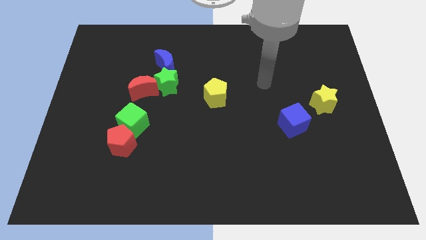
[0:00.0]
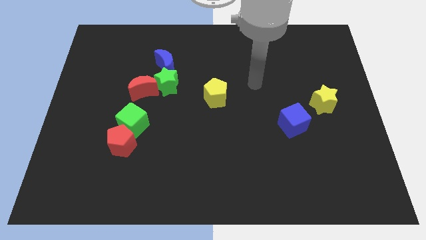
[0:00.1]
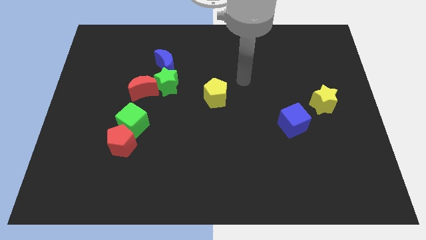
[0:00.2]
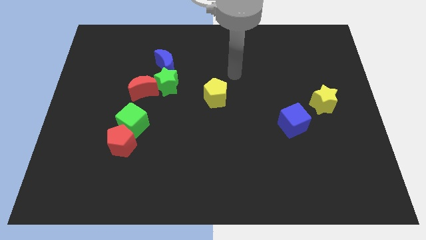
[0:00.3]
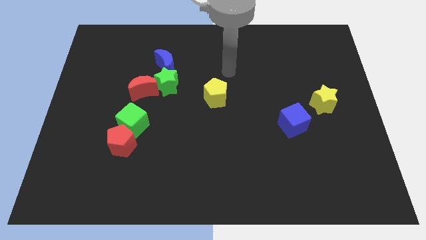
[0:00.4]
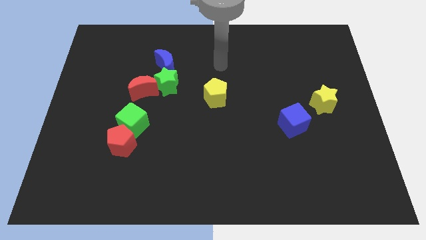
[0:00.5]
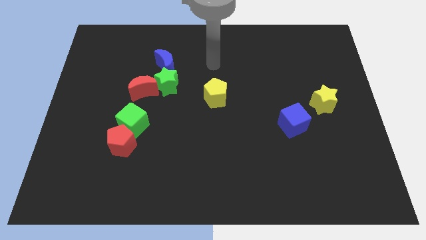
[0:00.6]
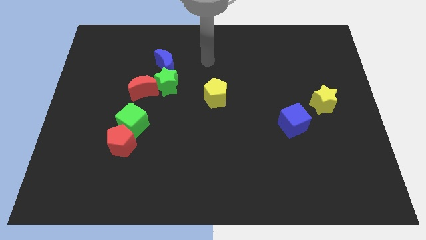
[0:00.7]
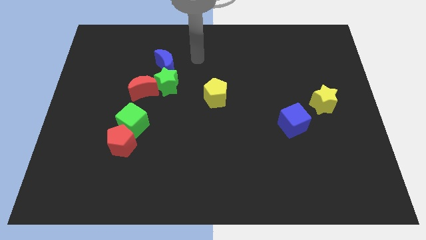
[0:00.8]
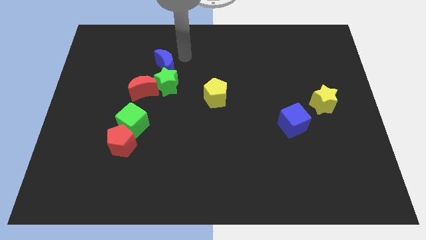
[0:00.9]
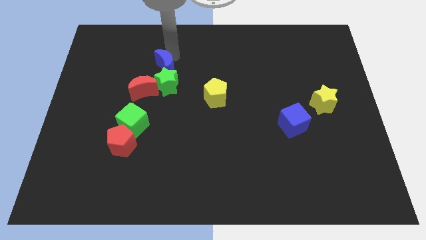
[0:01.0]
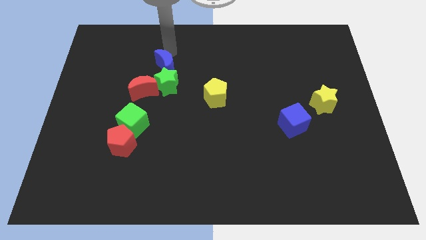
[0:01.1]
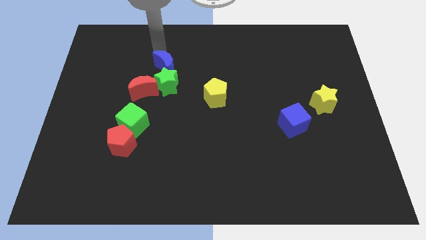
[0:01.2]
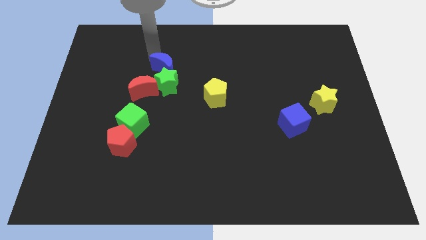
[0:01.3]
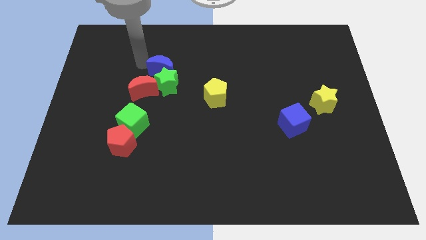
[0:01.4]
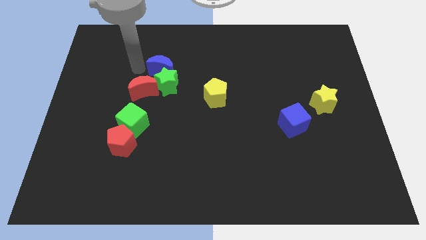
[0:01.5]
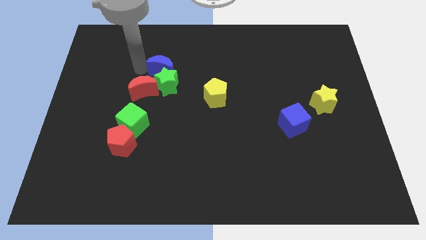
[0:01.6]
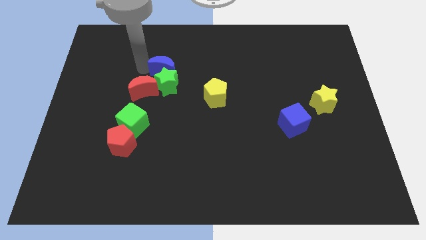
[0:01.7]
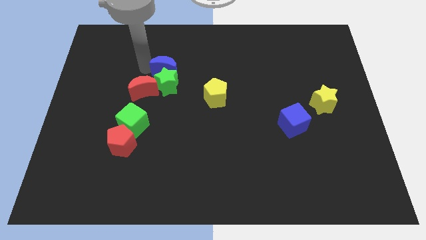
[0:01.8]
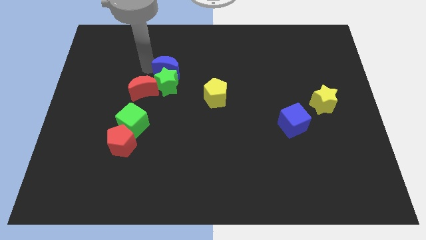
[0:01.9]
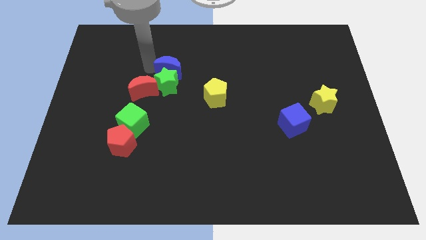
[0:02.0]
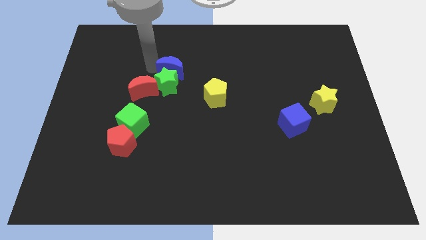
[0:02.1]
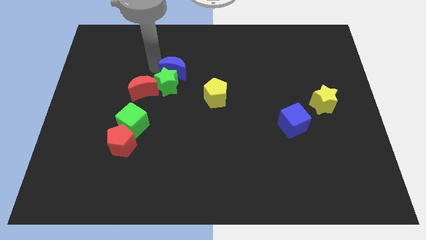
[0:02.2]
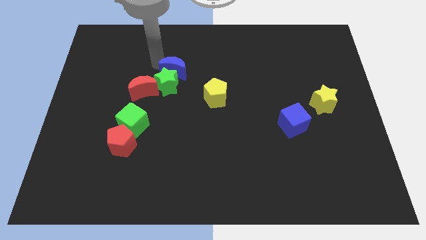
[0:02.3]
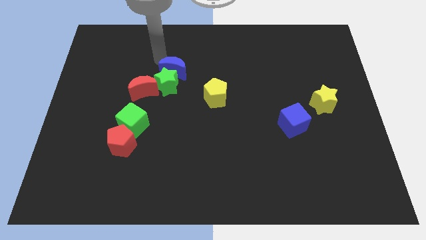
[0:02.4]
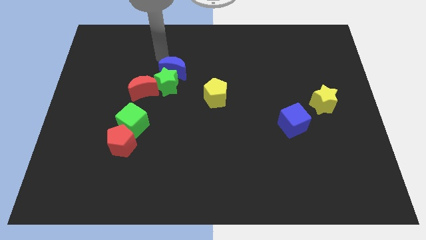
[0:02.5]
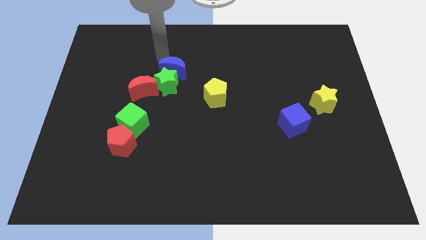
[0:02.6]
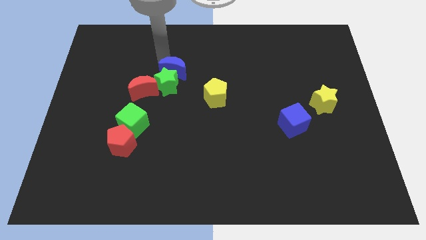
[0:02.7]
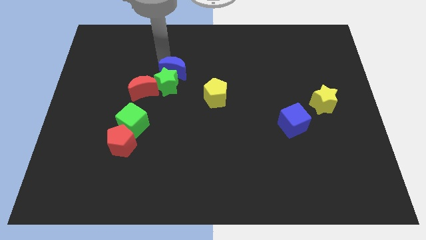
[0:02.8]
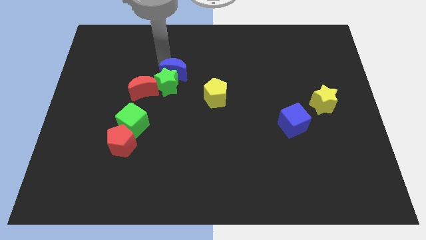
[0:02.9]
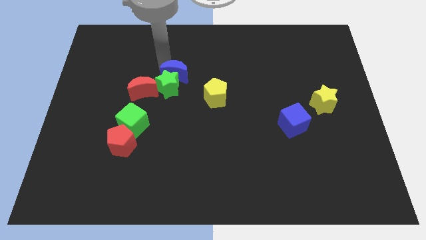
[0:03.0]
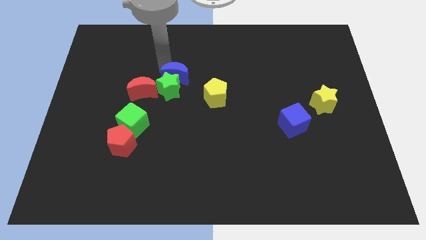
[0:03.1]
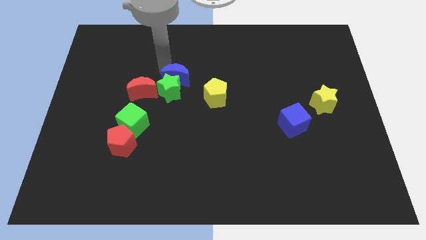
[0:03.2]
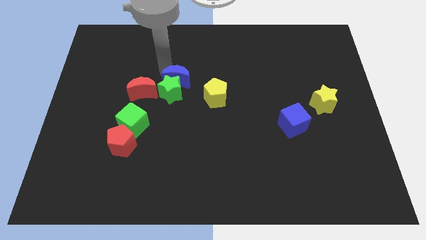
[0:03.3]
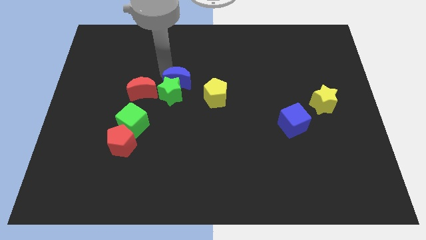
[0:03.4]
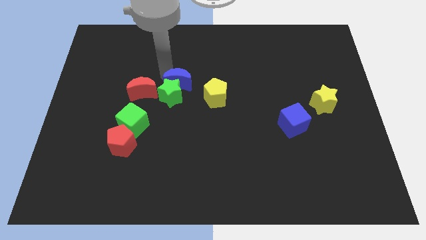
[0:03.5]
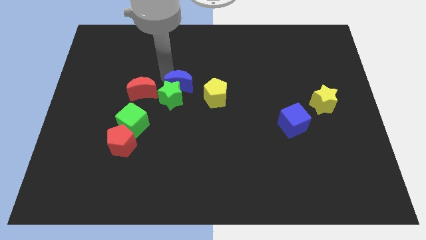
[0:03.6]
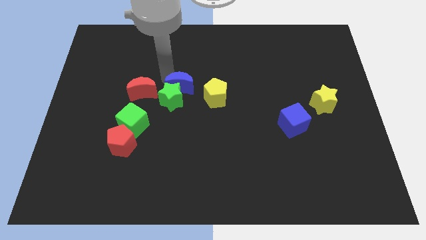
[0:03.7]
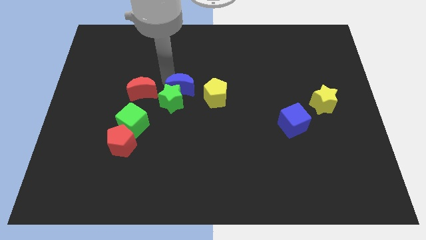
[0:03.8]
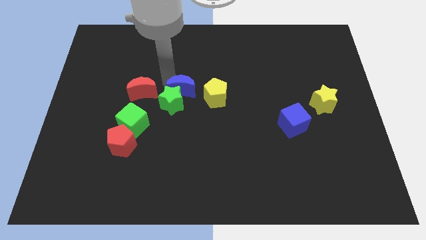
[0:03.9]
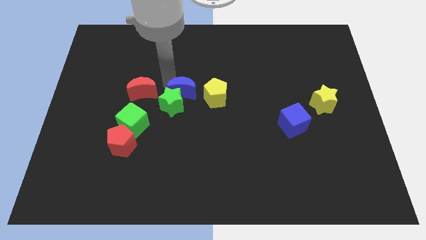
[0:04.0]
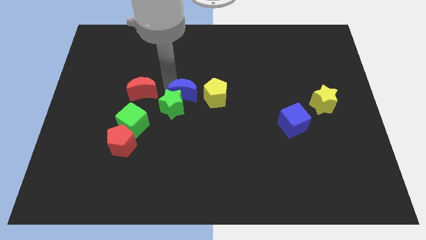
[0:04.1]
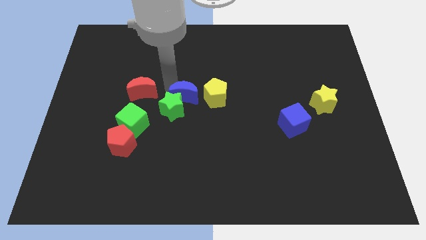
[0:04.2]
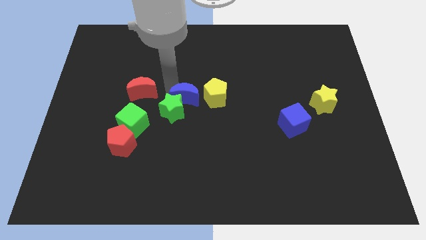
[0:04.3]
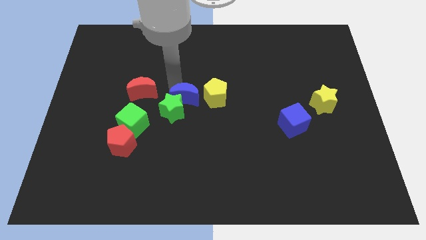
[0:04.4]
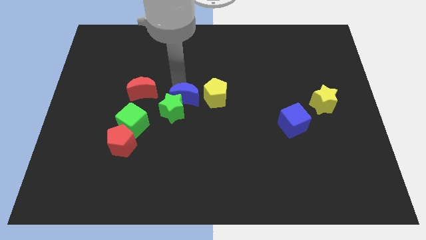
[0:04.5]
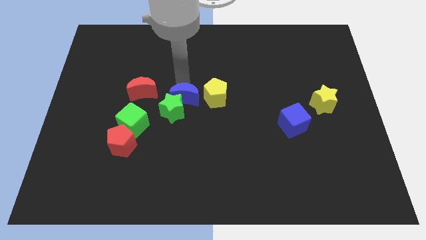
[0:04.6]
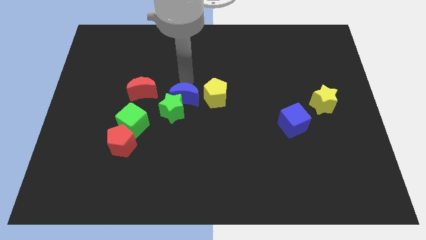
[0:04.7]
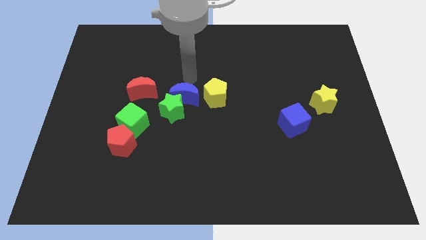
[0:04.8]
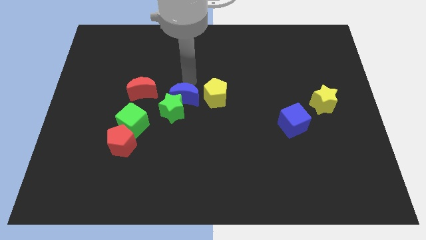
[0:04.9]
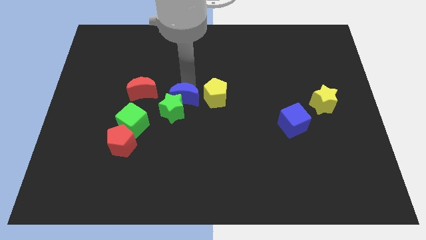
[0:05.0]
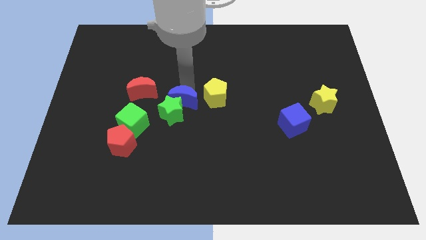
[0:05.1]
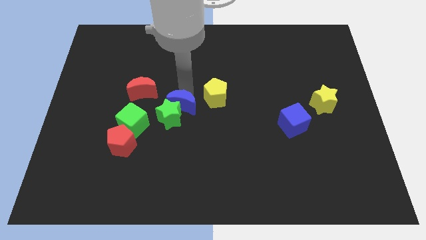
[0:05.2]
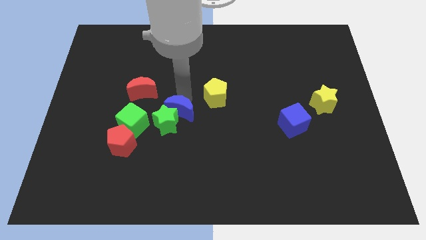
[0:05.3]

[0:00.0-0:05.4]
move the blue moon to the right of the green cube

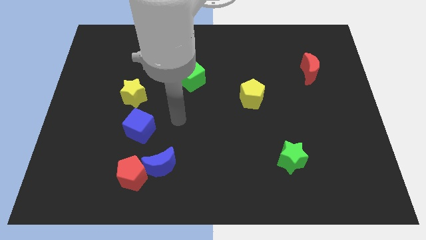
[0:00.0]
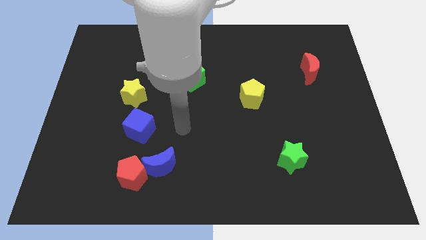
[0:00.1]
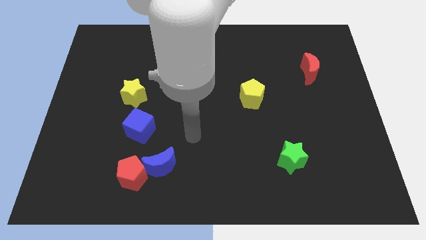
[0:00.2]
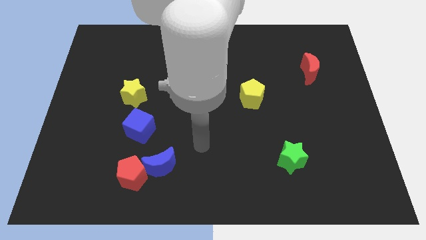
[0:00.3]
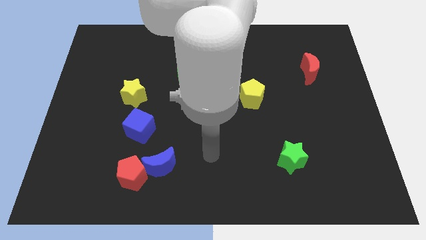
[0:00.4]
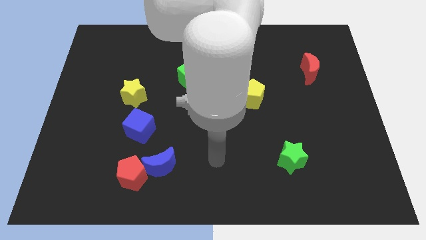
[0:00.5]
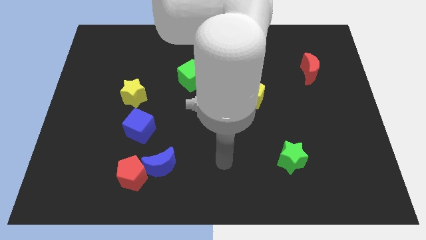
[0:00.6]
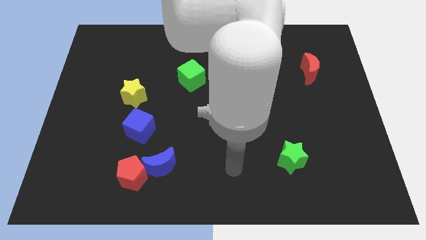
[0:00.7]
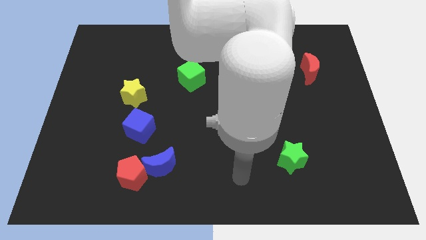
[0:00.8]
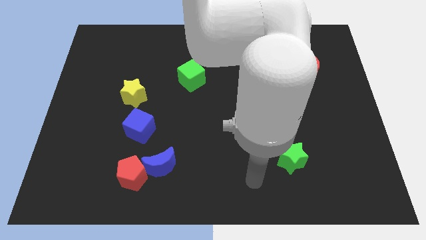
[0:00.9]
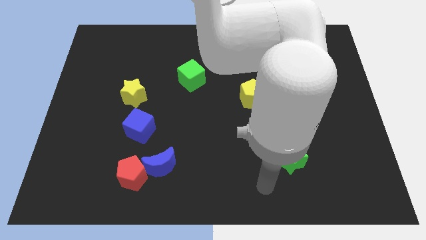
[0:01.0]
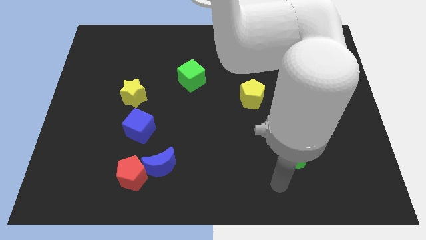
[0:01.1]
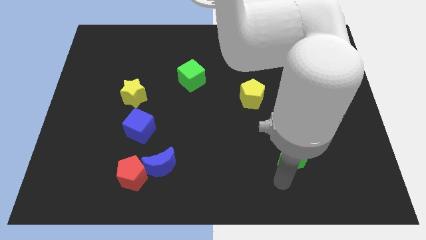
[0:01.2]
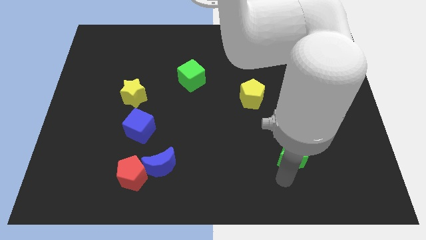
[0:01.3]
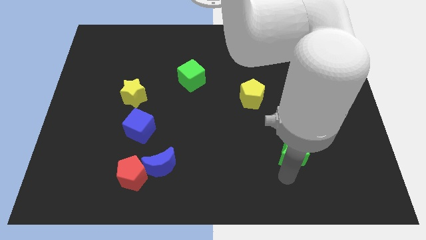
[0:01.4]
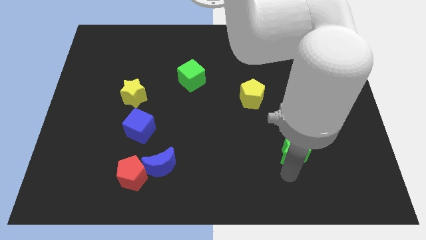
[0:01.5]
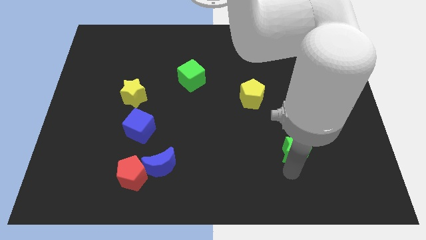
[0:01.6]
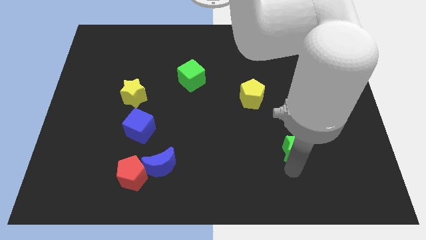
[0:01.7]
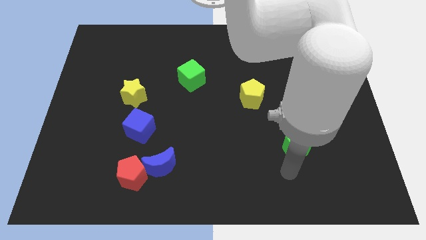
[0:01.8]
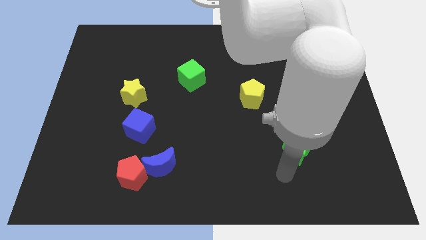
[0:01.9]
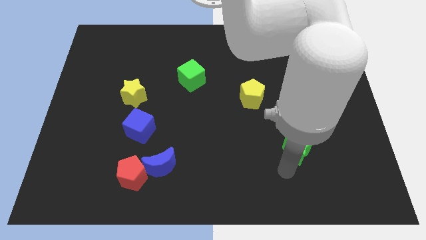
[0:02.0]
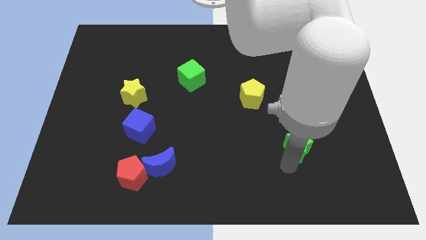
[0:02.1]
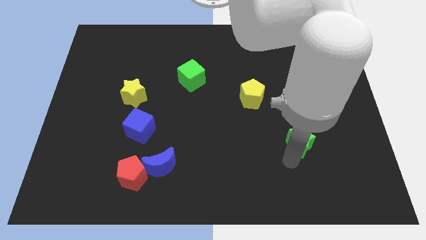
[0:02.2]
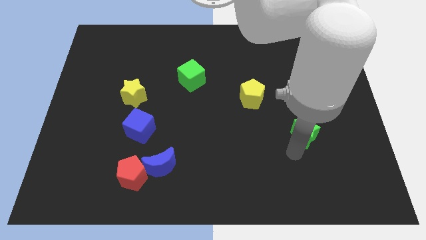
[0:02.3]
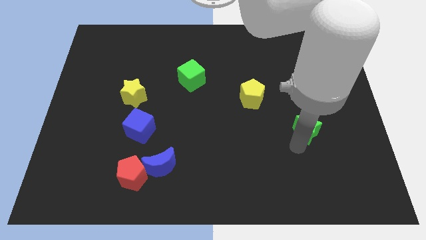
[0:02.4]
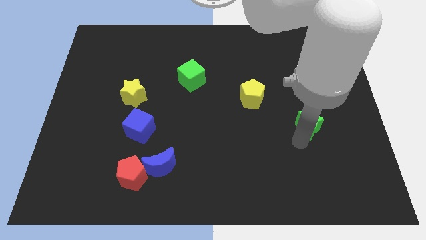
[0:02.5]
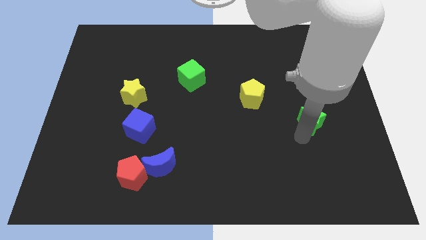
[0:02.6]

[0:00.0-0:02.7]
push the green star to the bottom of the red moon

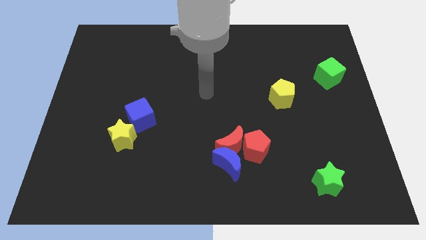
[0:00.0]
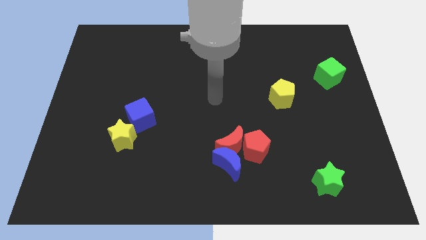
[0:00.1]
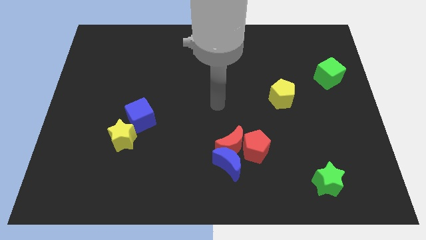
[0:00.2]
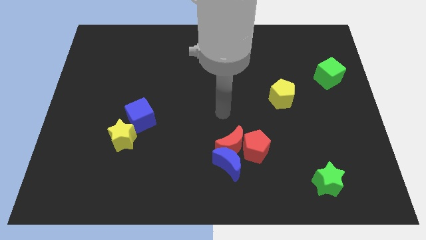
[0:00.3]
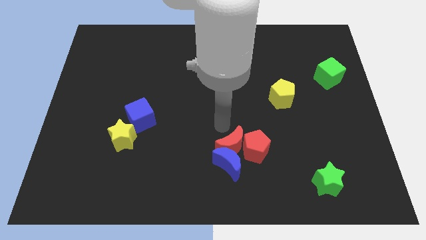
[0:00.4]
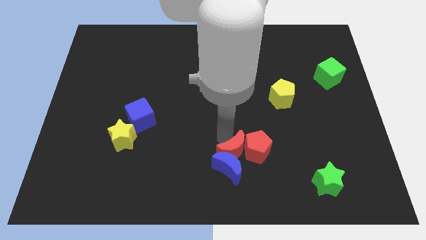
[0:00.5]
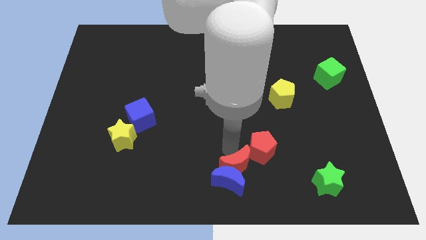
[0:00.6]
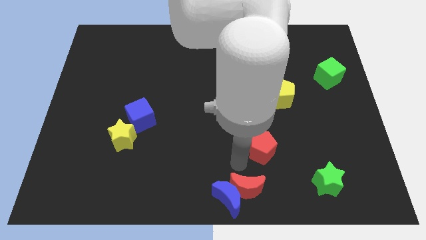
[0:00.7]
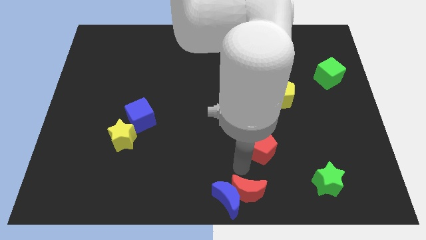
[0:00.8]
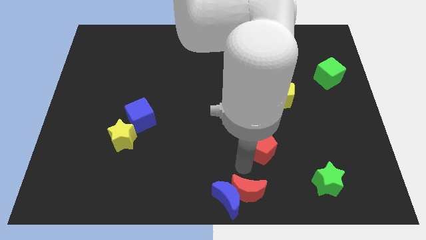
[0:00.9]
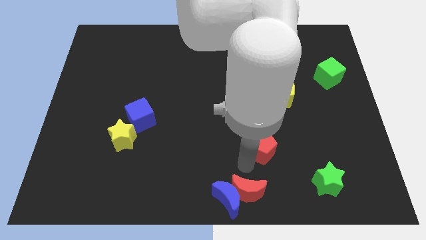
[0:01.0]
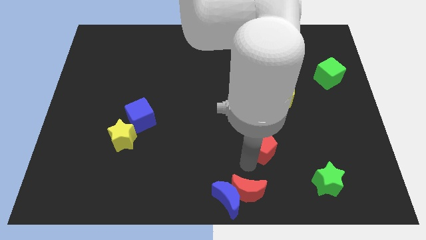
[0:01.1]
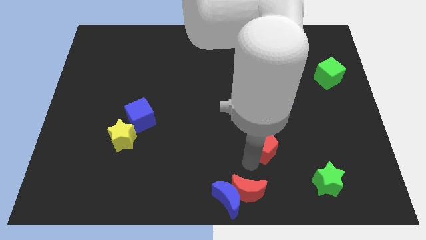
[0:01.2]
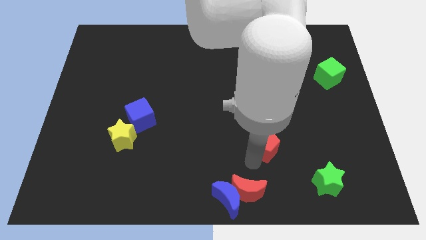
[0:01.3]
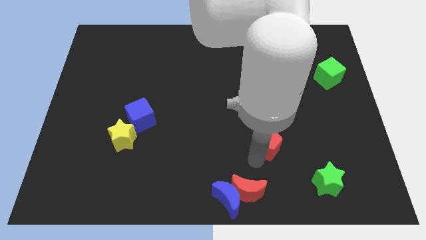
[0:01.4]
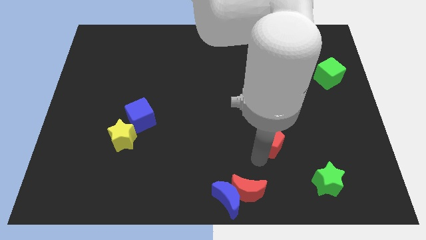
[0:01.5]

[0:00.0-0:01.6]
push the red pentagon to the bottom of the yellow pentagon
